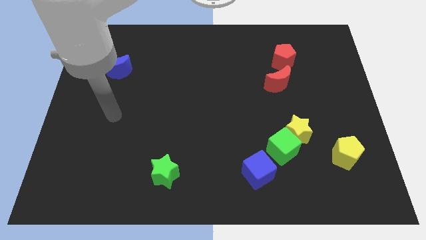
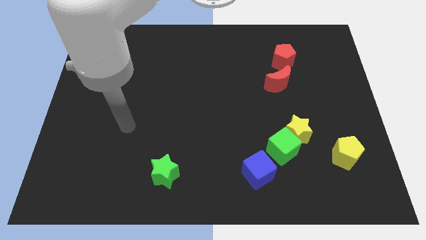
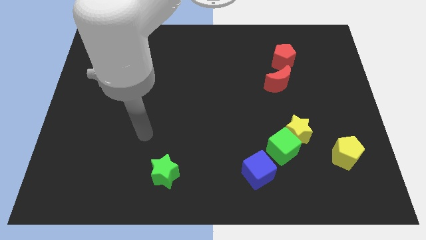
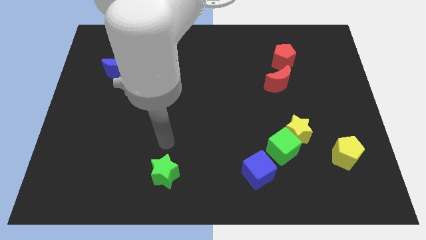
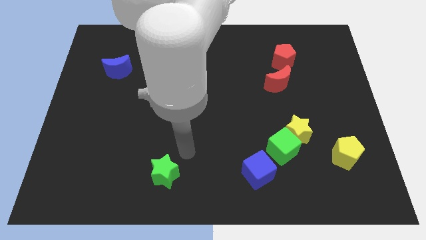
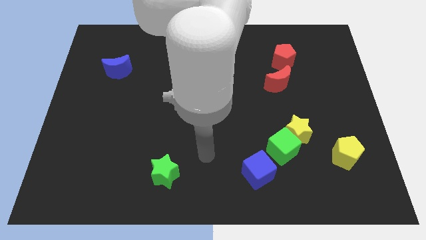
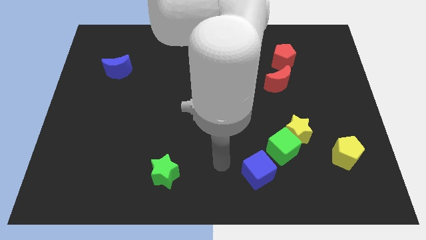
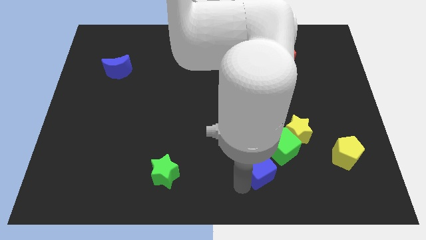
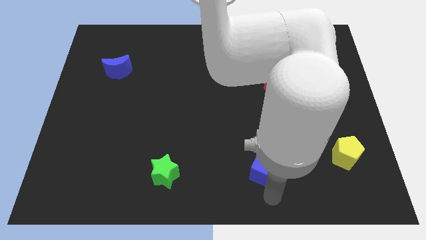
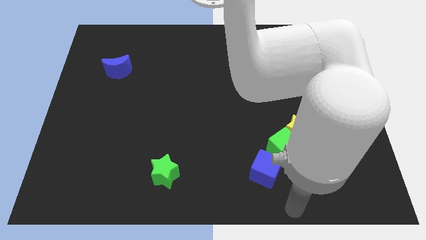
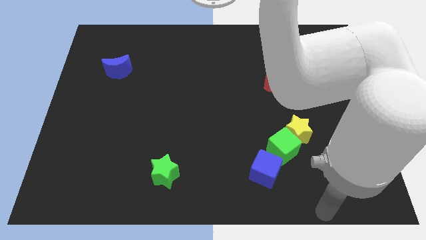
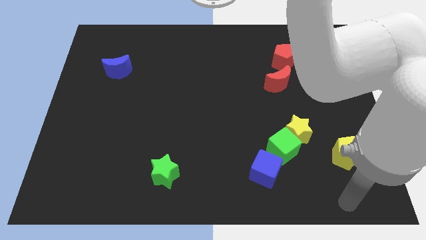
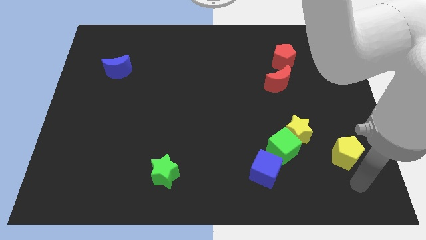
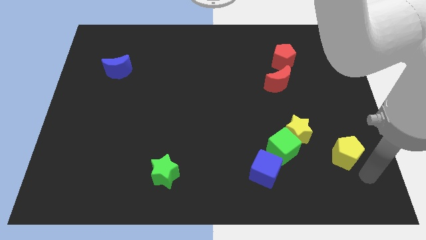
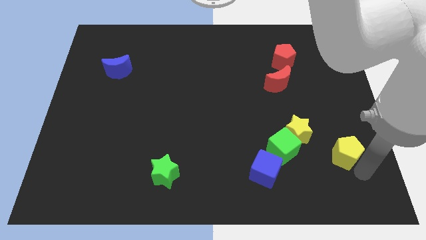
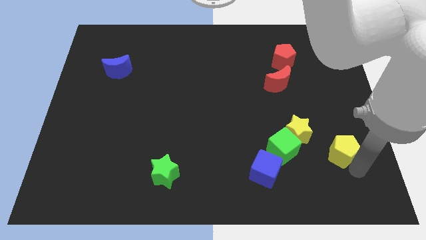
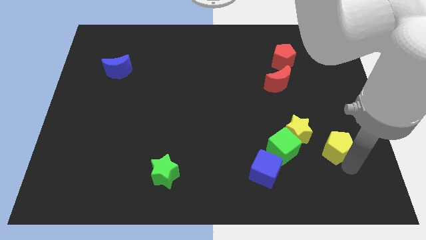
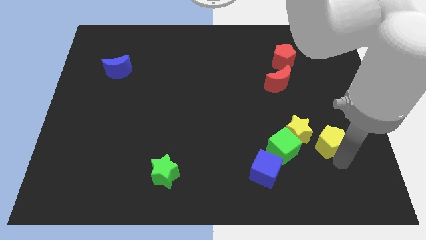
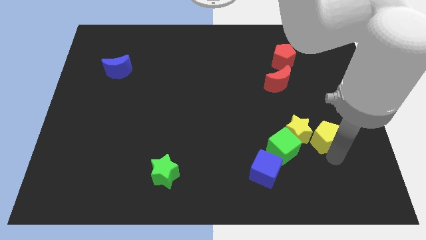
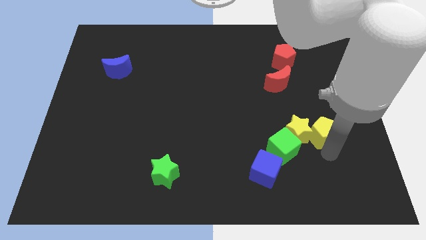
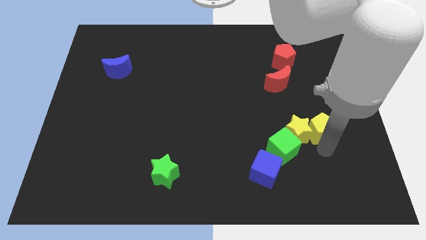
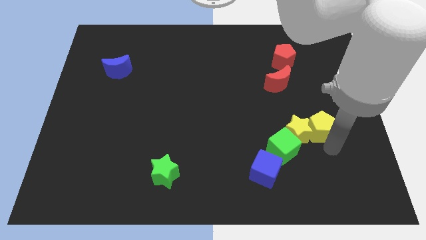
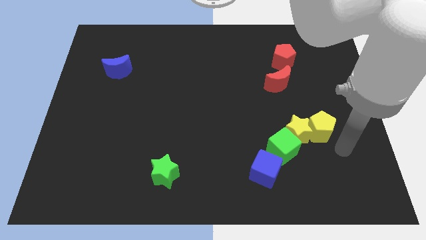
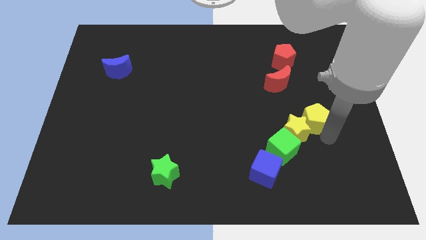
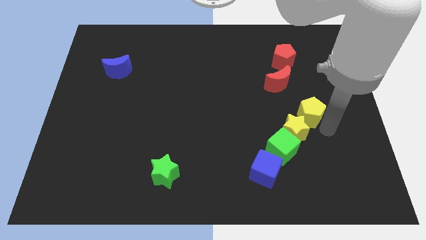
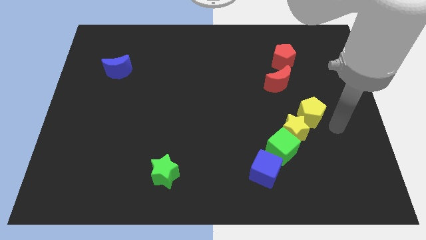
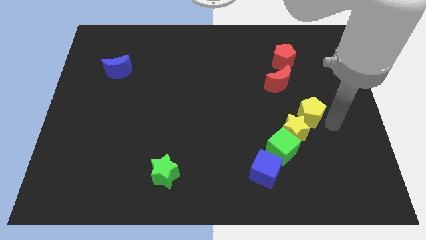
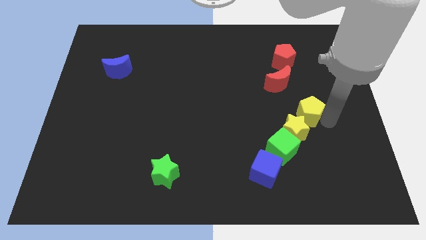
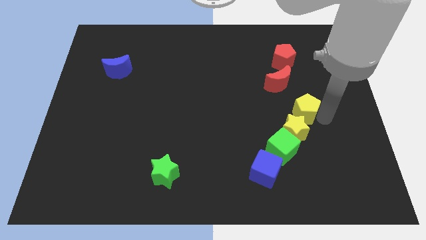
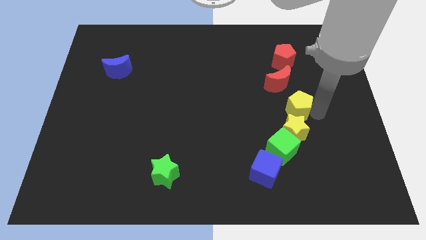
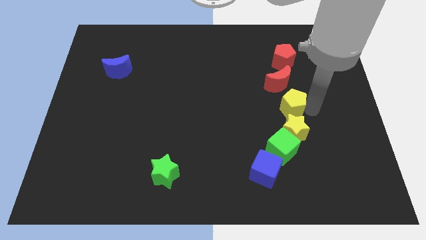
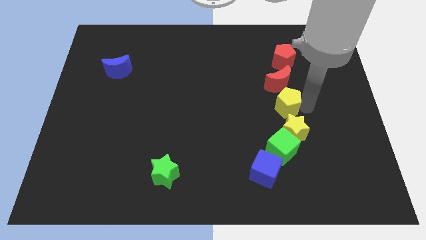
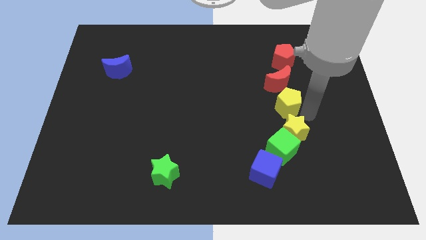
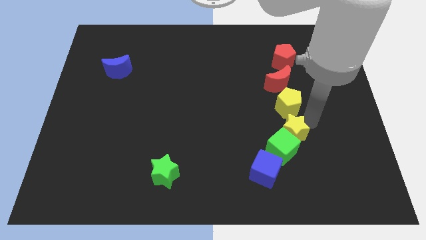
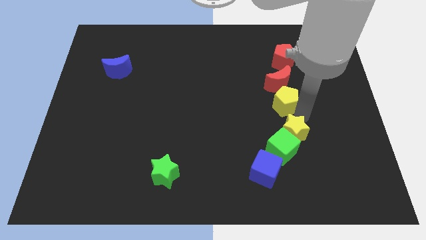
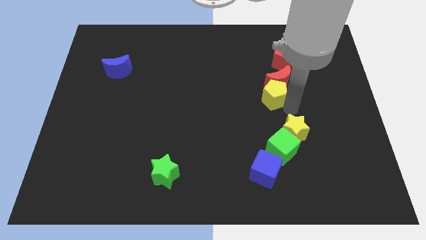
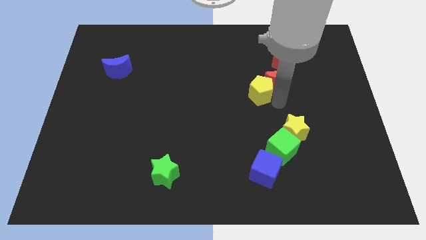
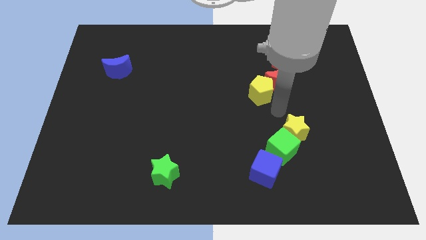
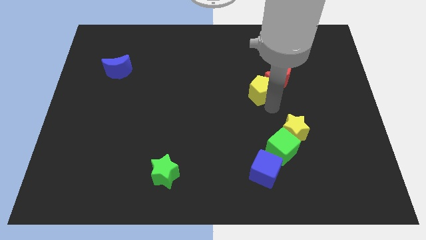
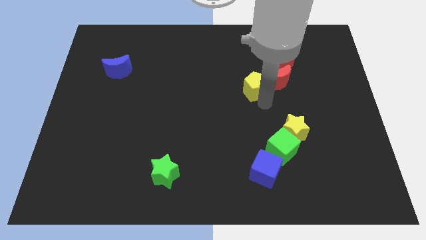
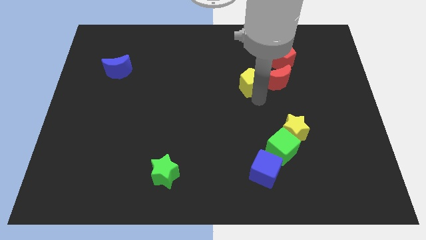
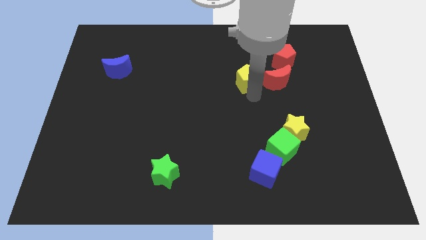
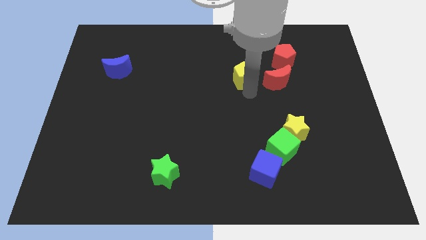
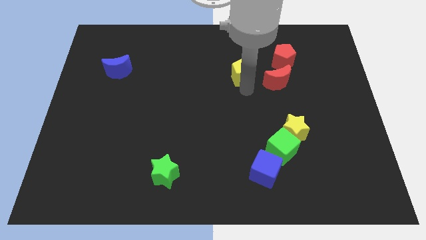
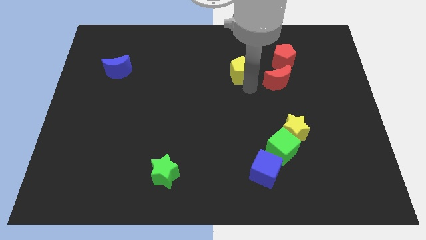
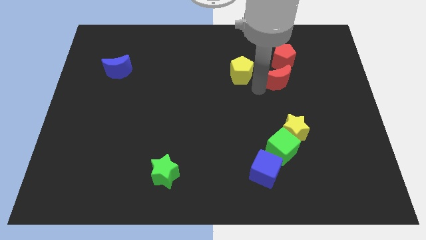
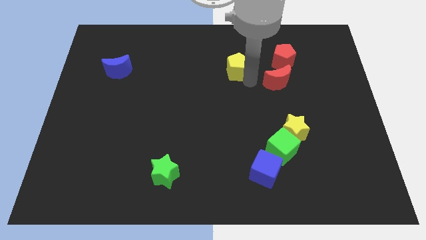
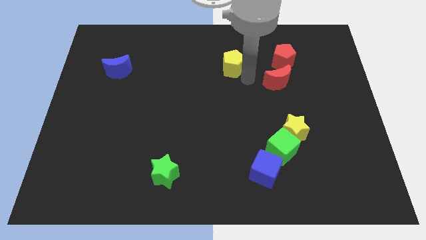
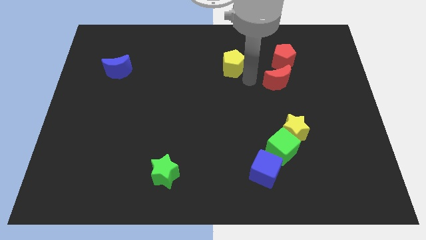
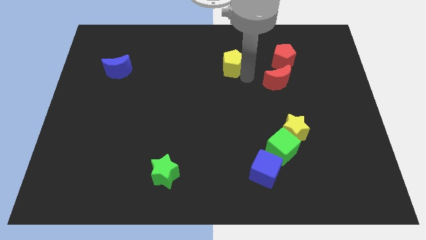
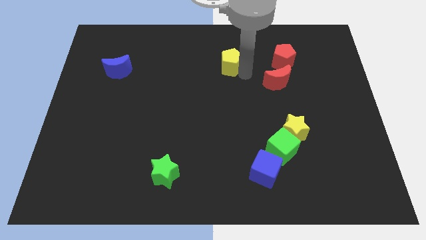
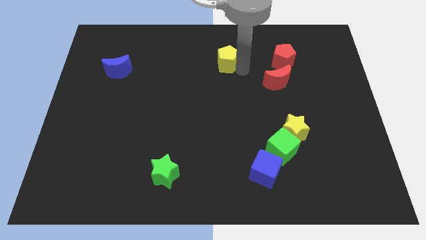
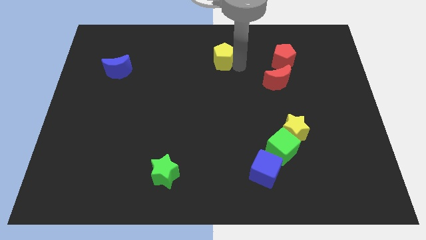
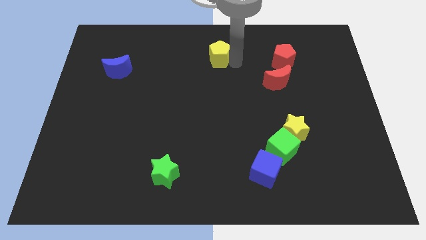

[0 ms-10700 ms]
slide the yellow pentagon to the top

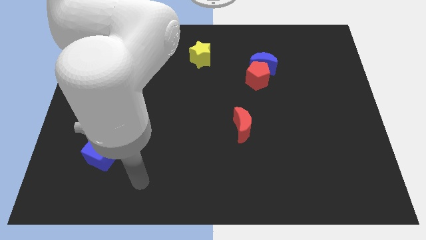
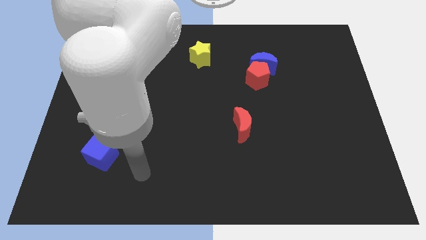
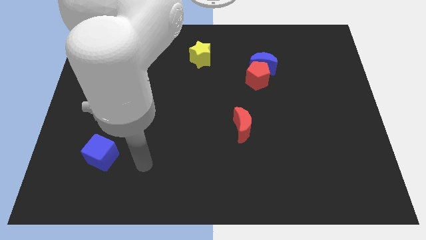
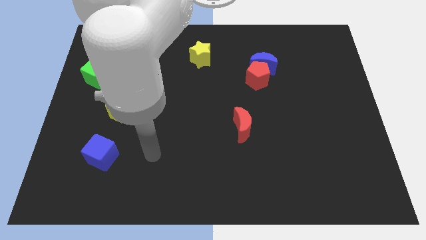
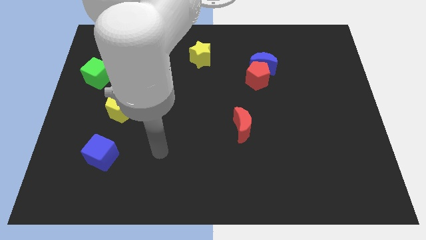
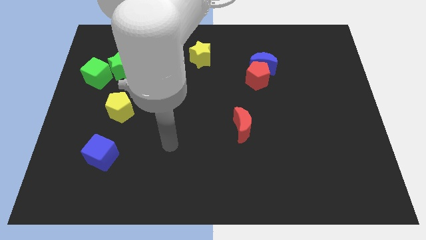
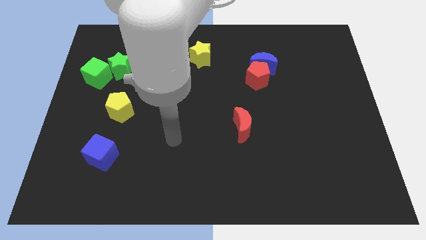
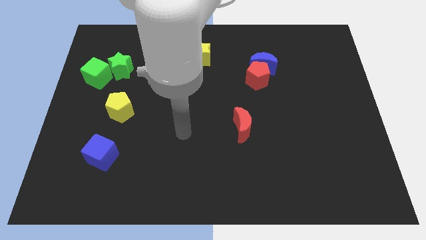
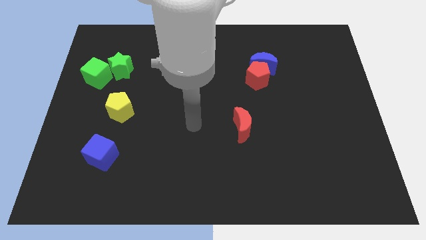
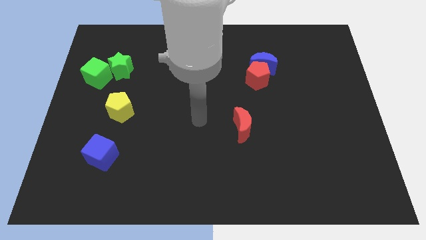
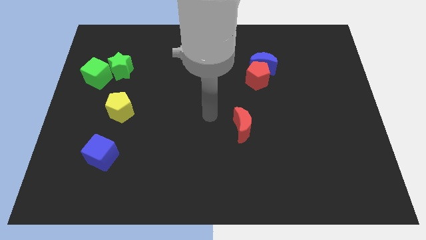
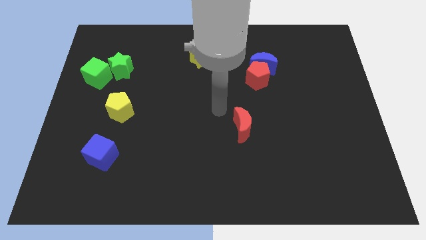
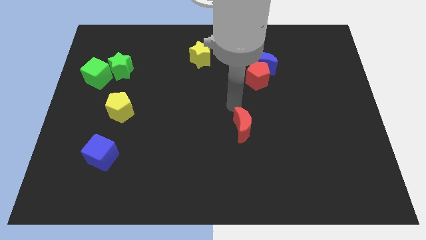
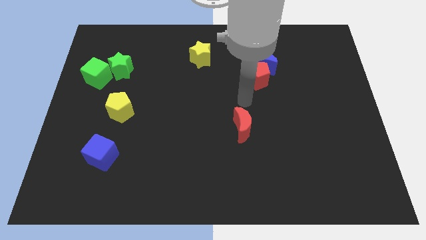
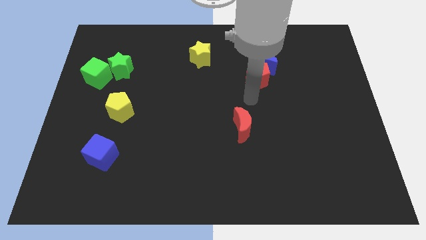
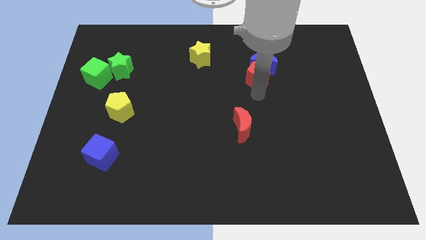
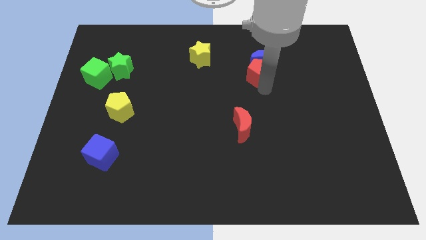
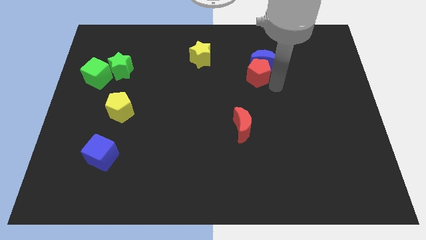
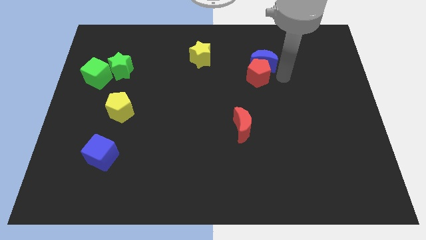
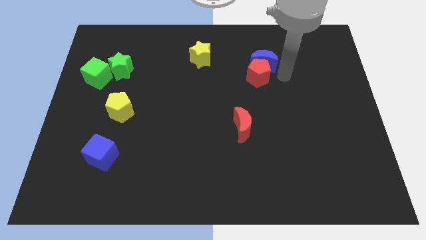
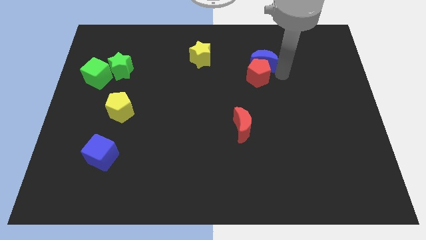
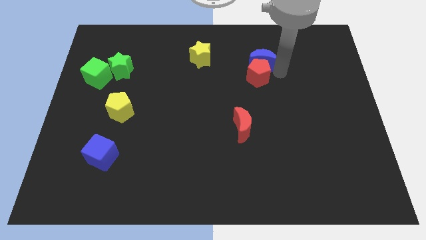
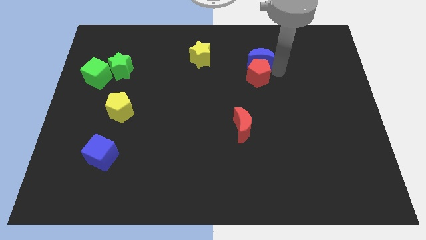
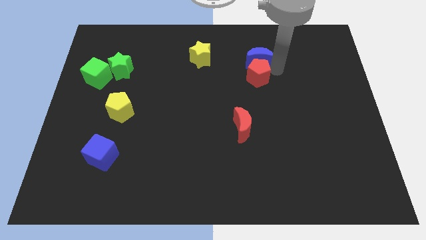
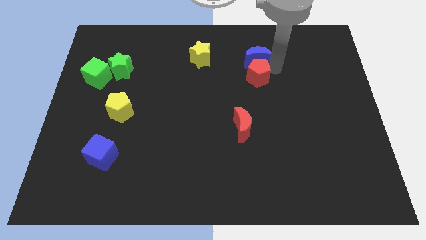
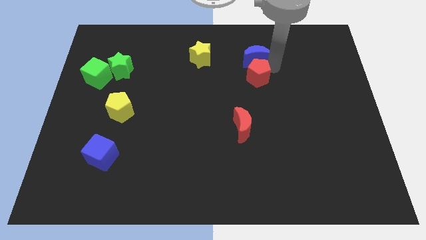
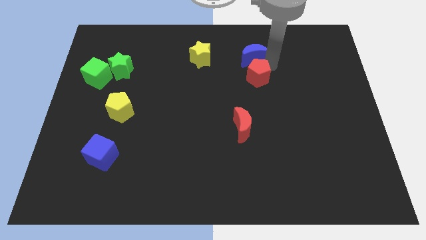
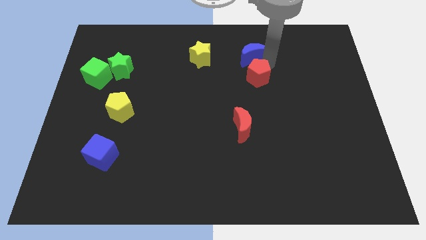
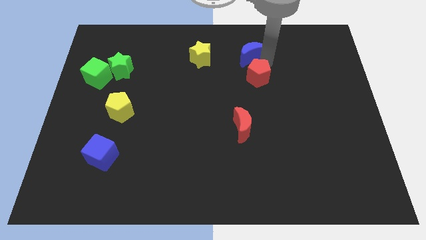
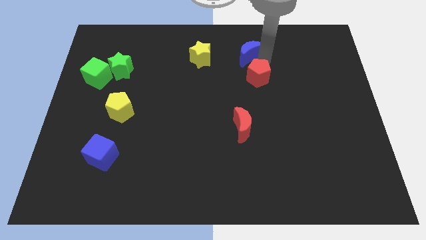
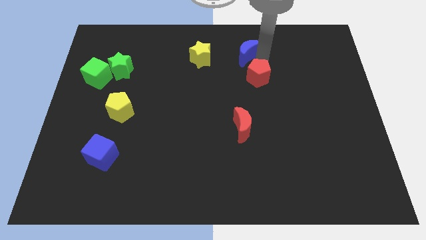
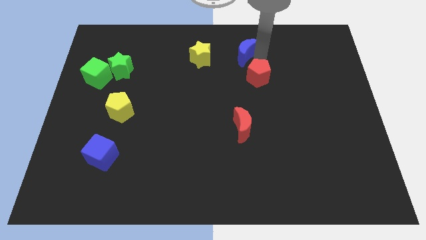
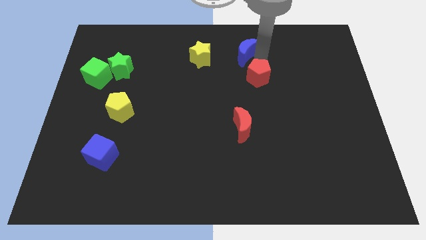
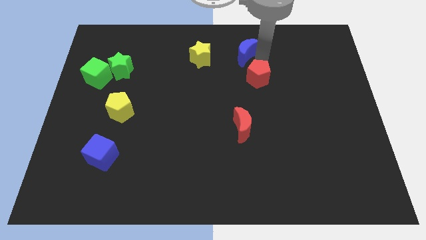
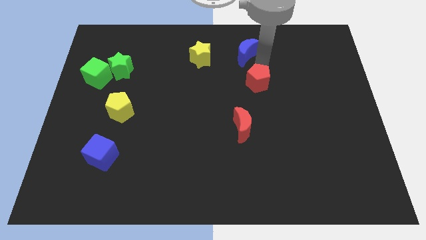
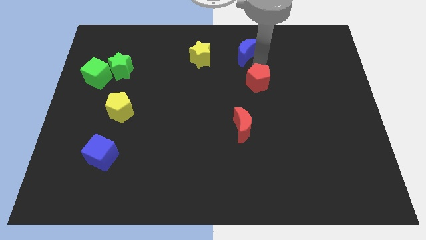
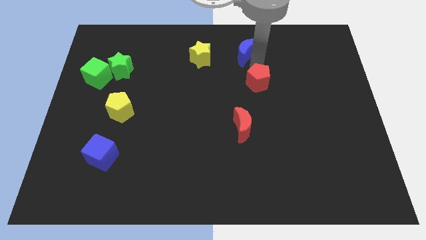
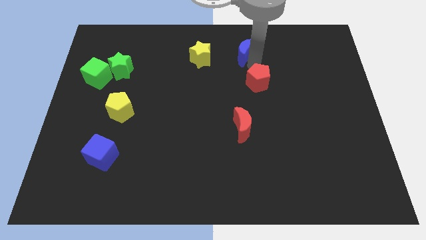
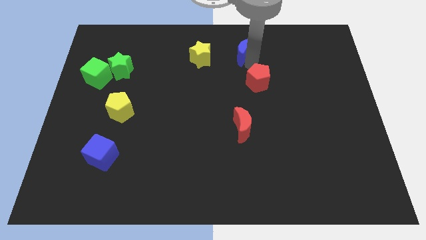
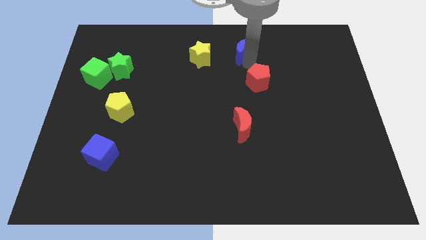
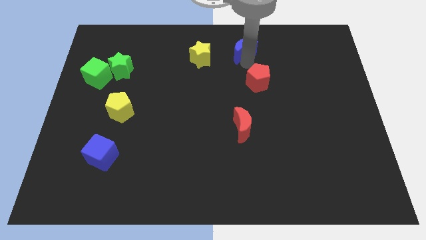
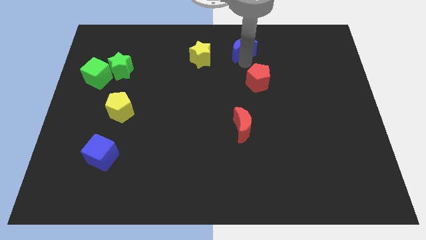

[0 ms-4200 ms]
put the blue moon to the towards your base
